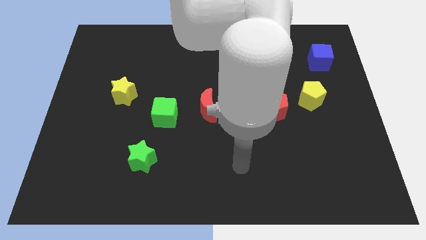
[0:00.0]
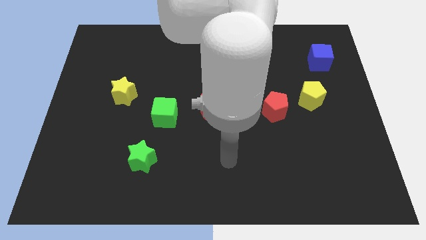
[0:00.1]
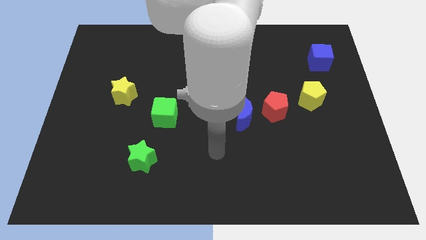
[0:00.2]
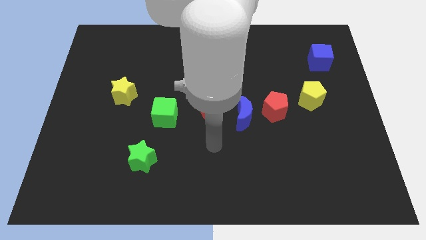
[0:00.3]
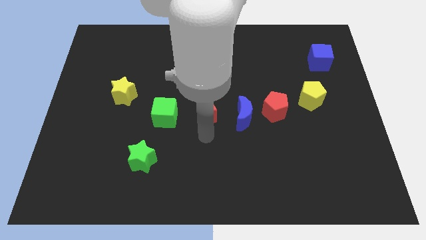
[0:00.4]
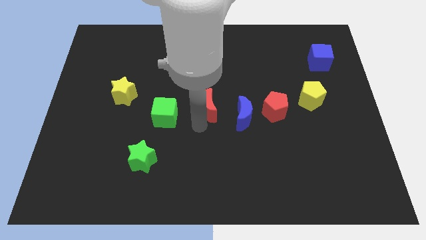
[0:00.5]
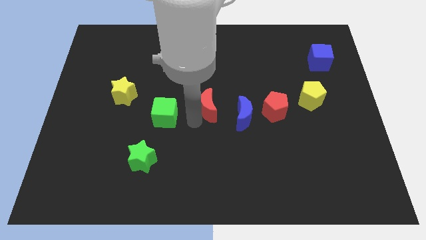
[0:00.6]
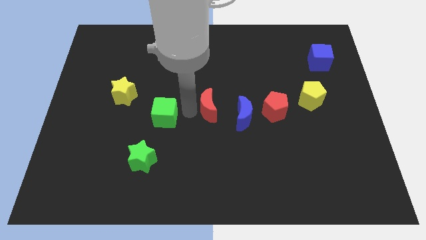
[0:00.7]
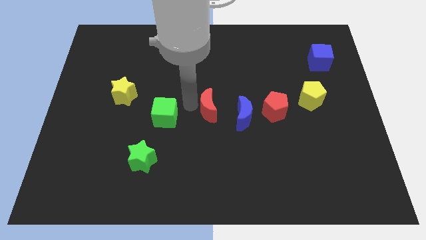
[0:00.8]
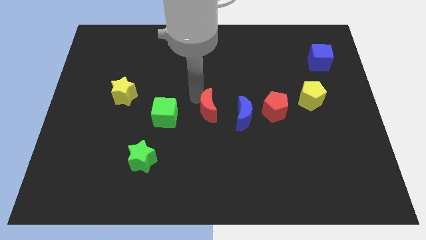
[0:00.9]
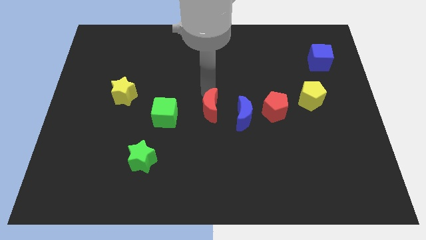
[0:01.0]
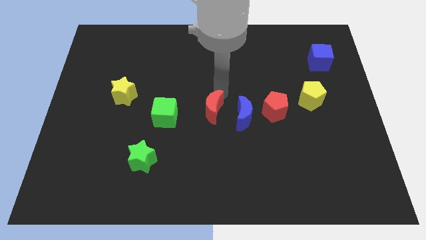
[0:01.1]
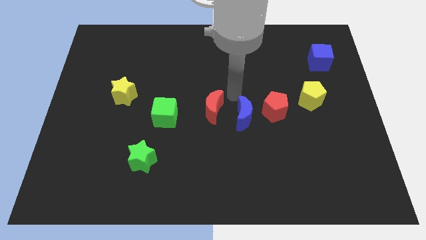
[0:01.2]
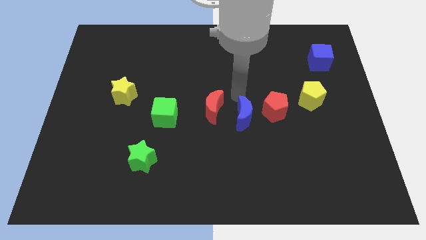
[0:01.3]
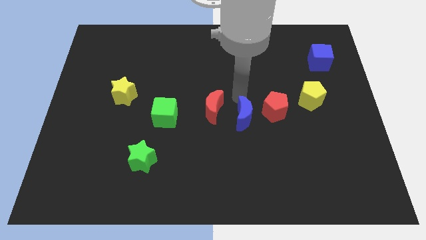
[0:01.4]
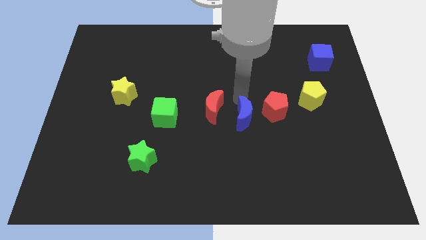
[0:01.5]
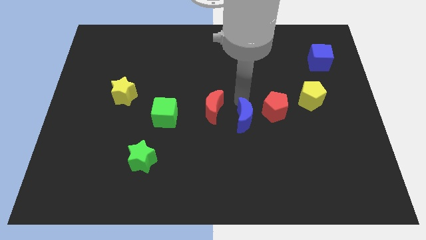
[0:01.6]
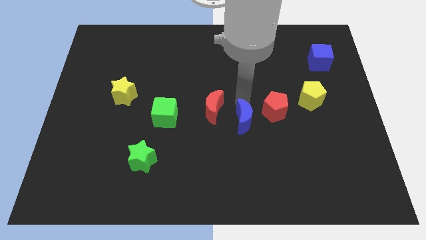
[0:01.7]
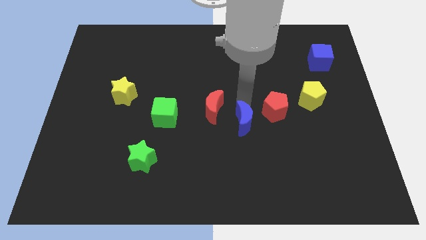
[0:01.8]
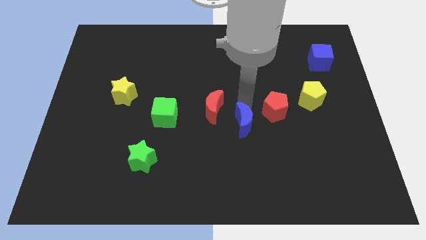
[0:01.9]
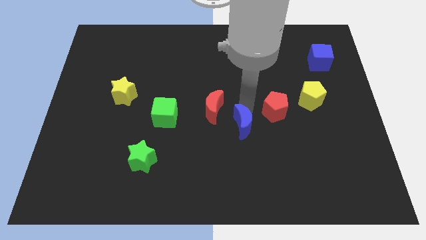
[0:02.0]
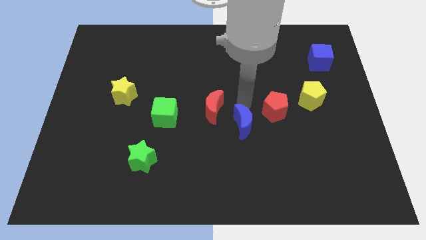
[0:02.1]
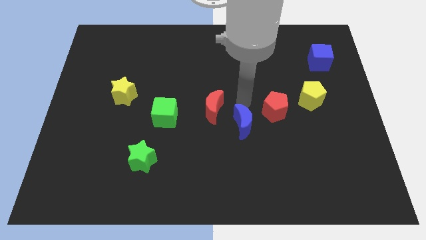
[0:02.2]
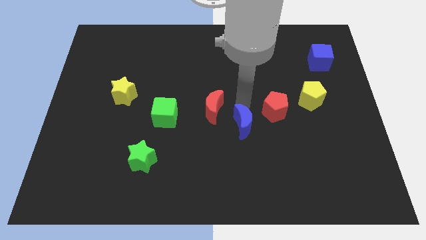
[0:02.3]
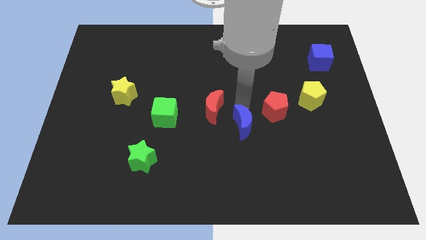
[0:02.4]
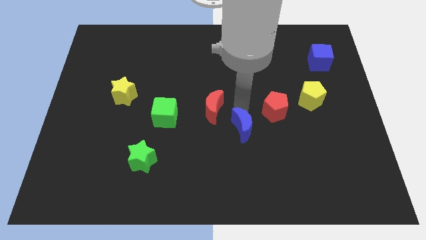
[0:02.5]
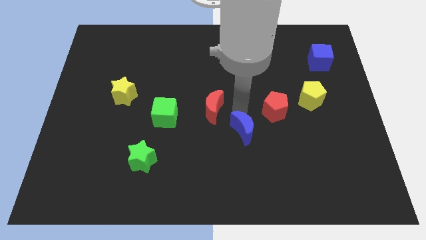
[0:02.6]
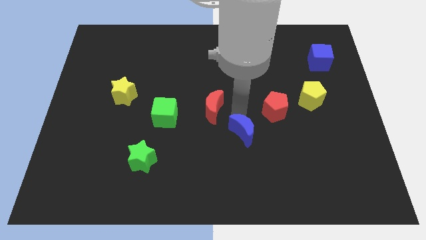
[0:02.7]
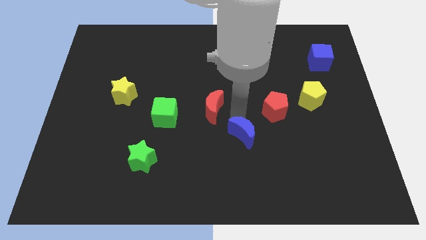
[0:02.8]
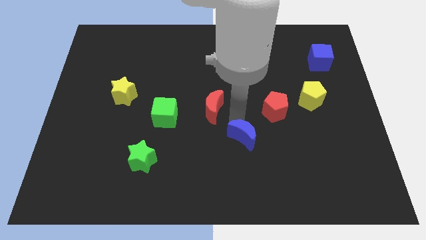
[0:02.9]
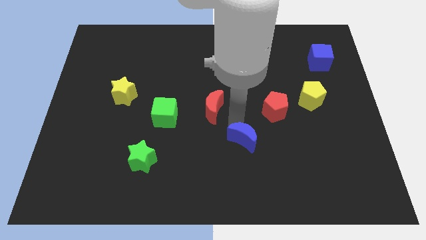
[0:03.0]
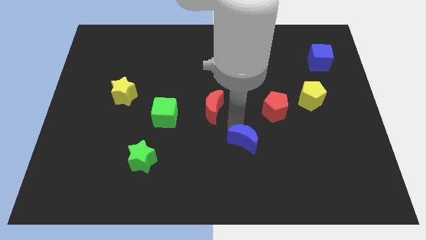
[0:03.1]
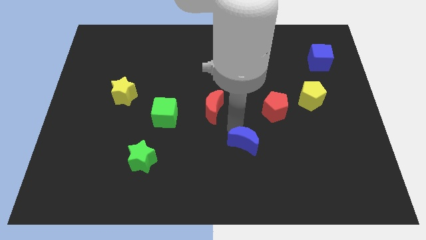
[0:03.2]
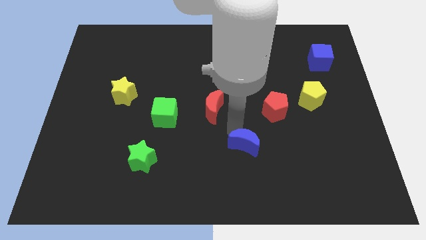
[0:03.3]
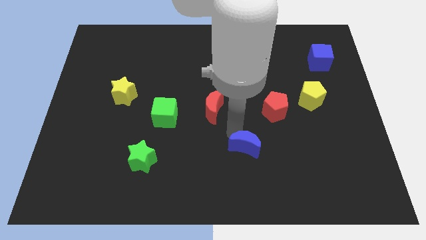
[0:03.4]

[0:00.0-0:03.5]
separate the blue moon from the red pentagon and red moon

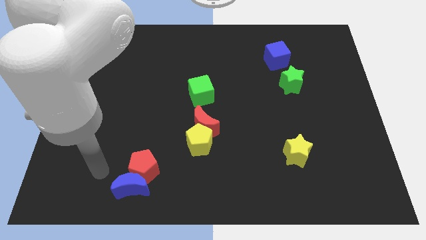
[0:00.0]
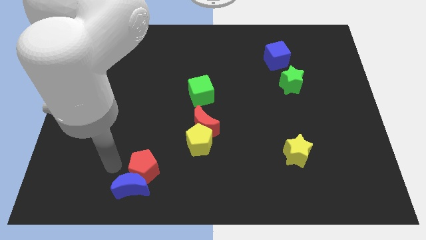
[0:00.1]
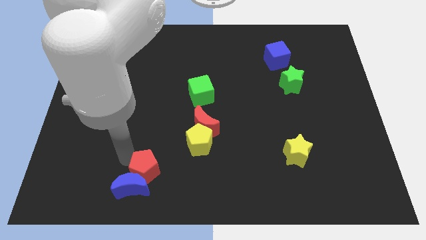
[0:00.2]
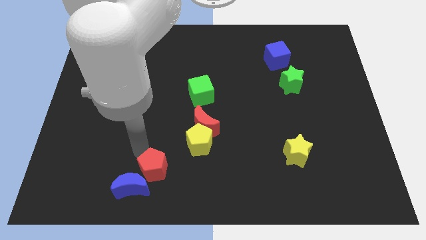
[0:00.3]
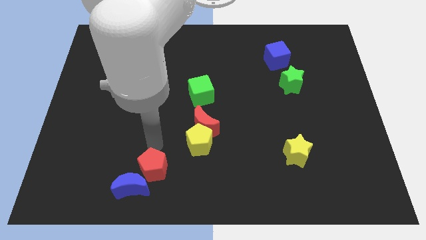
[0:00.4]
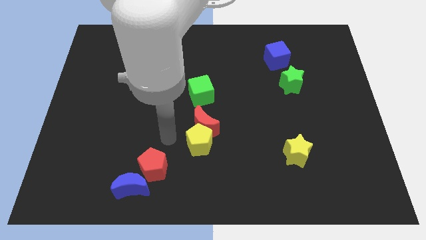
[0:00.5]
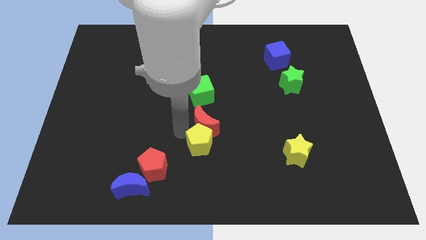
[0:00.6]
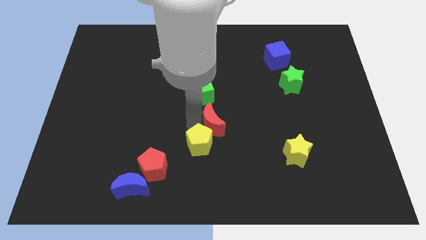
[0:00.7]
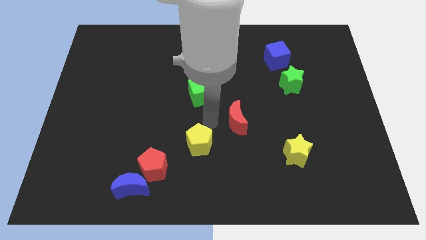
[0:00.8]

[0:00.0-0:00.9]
separate the yellow pentagon from the red moon

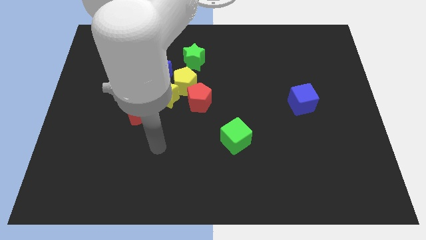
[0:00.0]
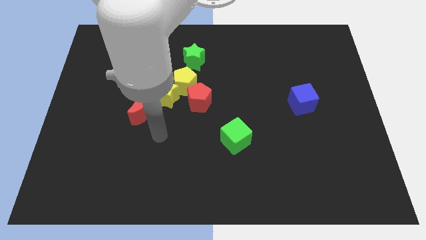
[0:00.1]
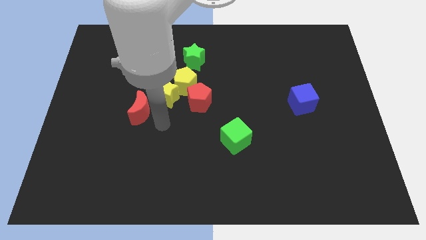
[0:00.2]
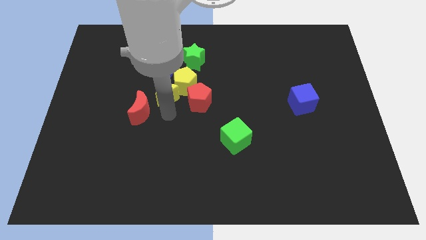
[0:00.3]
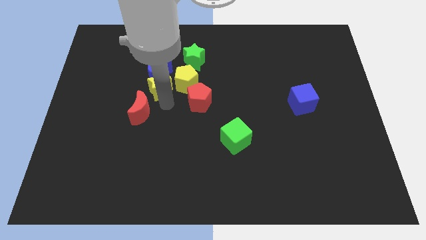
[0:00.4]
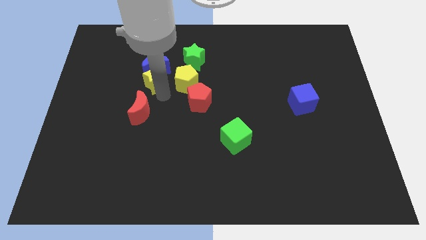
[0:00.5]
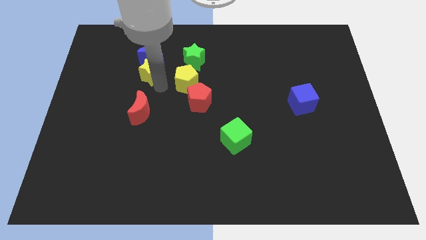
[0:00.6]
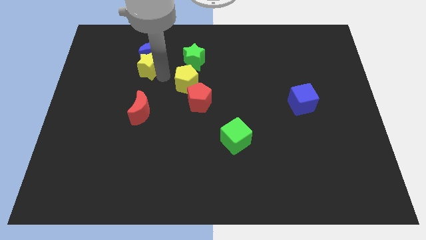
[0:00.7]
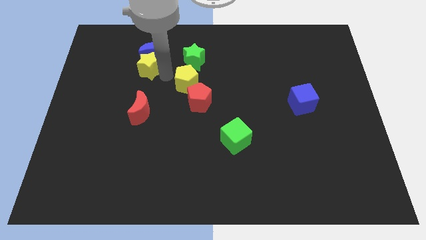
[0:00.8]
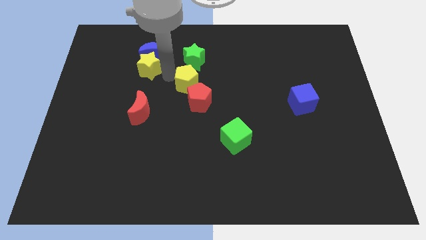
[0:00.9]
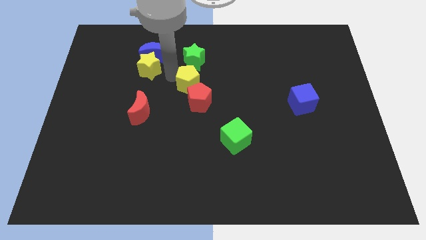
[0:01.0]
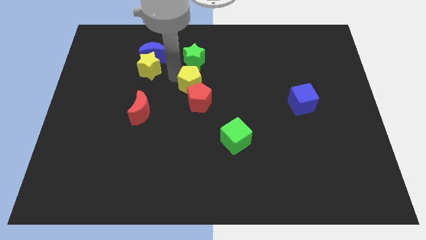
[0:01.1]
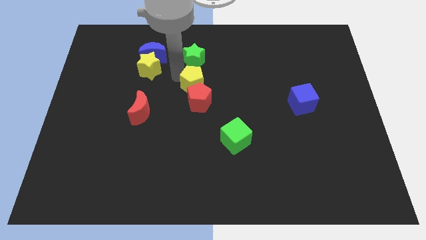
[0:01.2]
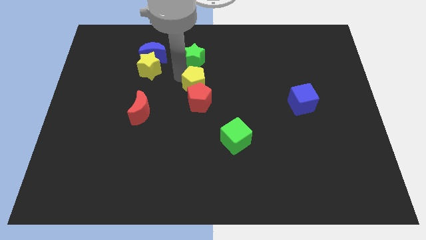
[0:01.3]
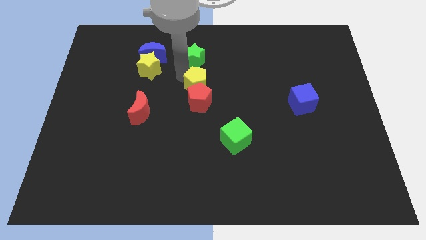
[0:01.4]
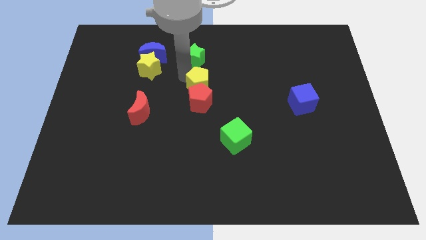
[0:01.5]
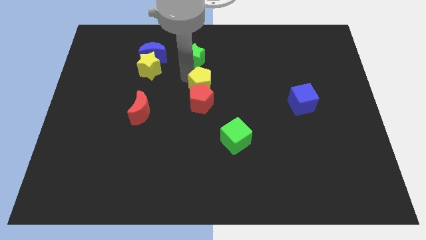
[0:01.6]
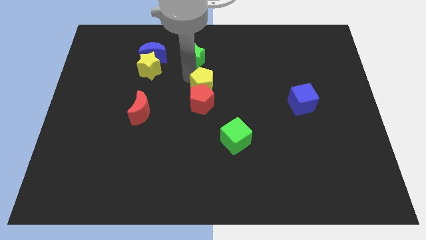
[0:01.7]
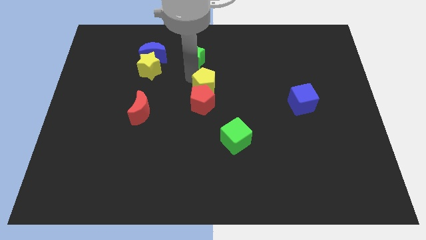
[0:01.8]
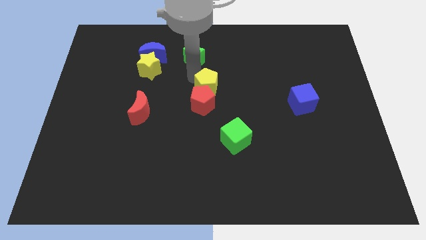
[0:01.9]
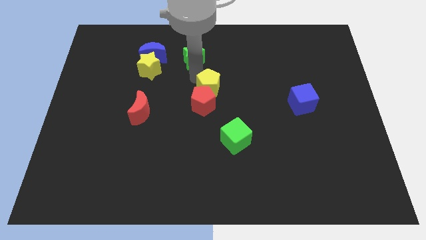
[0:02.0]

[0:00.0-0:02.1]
separate the yellow pentagon from the clump

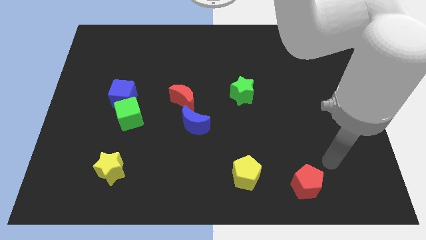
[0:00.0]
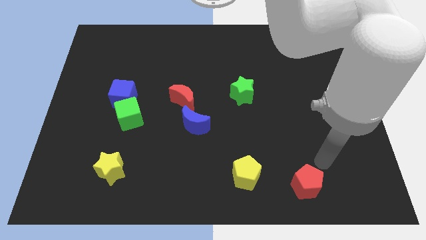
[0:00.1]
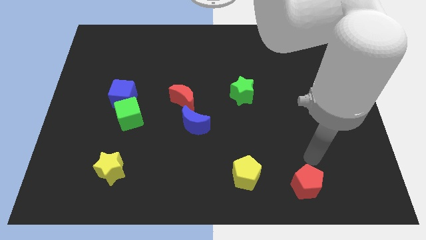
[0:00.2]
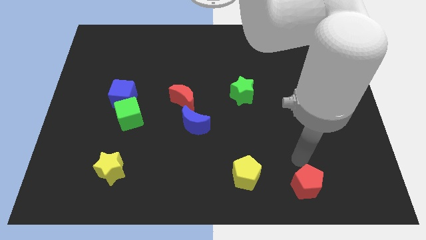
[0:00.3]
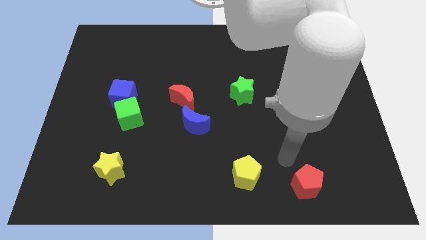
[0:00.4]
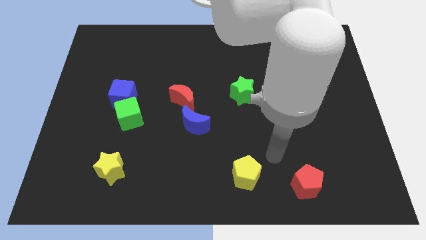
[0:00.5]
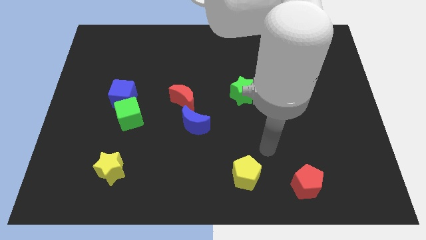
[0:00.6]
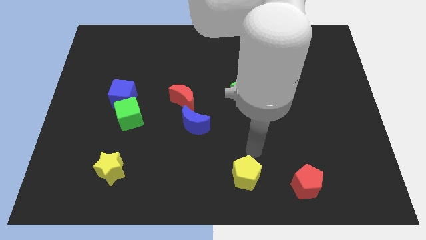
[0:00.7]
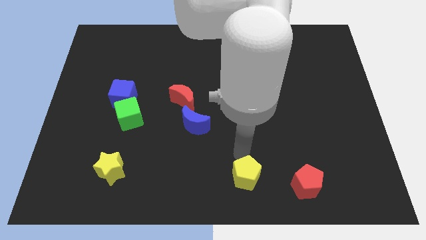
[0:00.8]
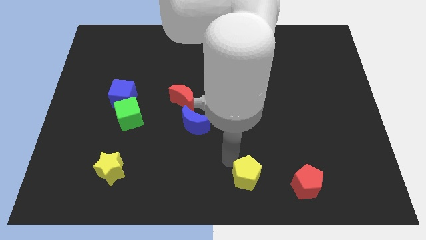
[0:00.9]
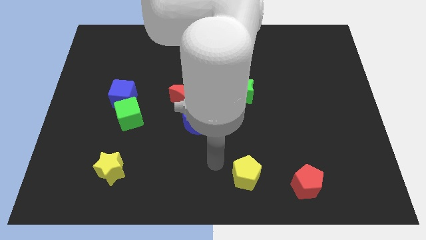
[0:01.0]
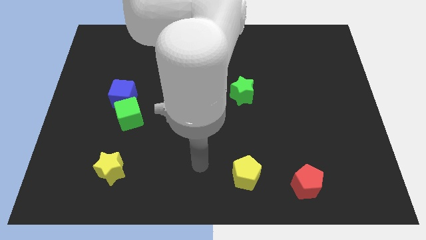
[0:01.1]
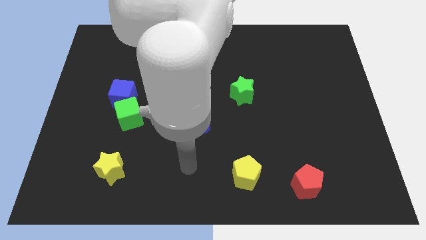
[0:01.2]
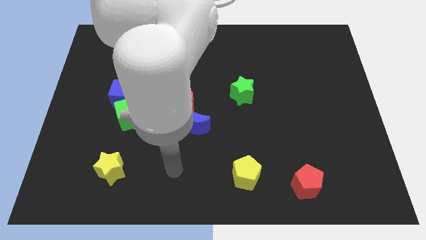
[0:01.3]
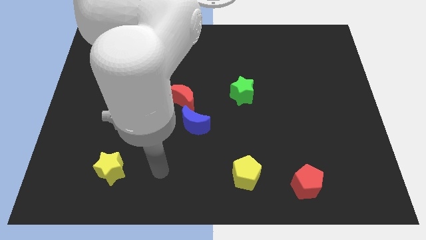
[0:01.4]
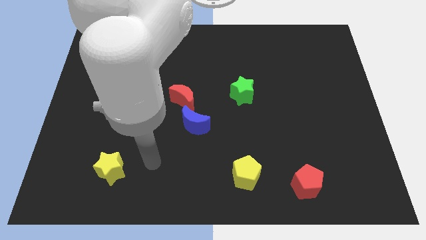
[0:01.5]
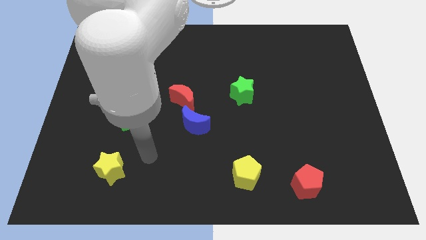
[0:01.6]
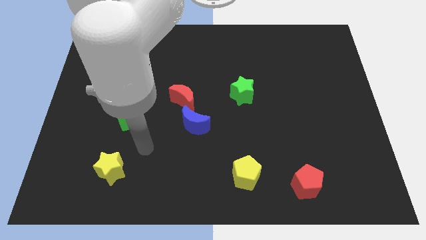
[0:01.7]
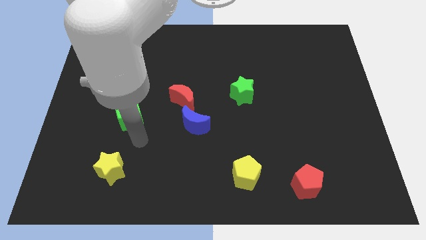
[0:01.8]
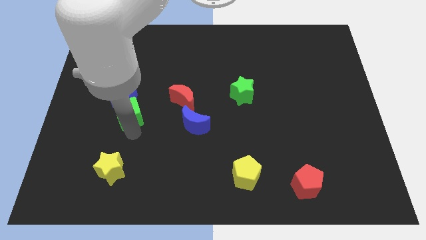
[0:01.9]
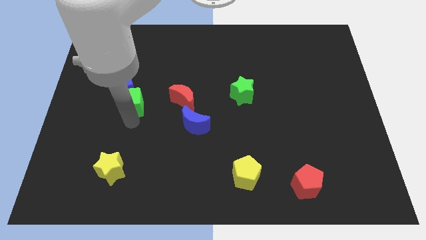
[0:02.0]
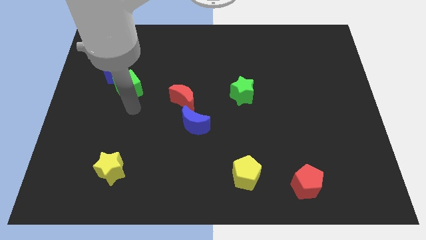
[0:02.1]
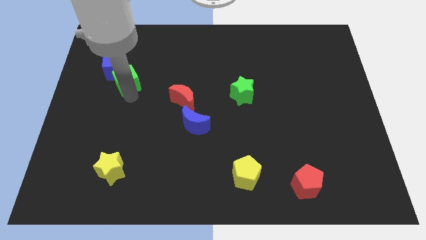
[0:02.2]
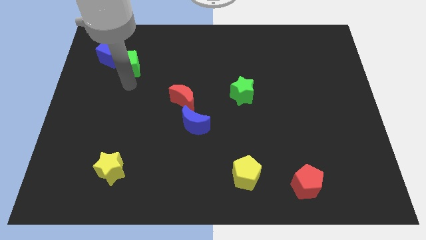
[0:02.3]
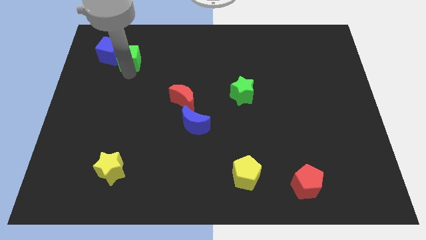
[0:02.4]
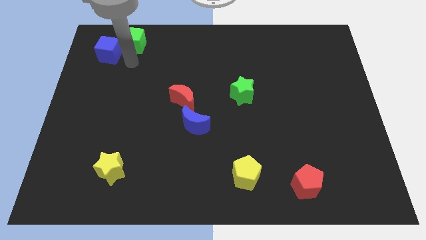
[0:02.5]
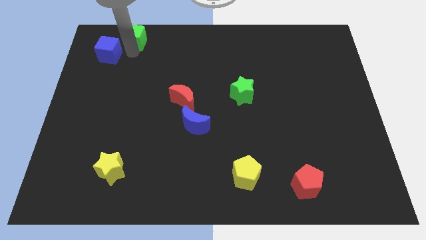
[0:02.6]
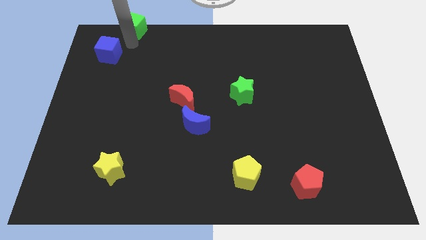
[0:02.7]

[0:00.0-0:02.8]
separate the blue cube from the green cube
